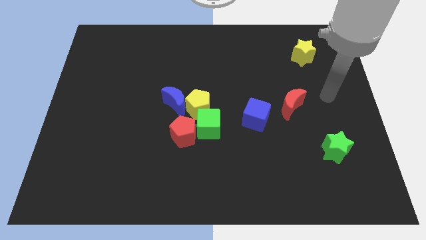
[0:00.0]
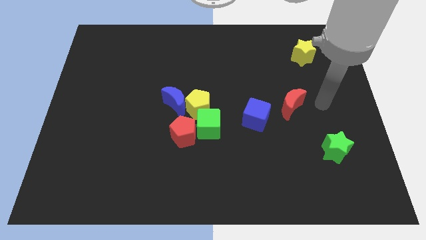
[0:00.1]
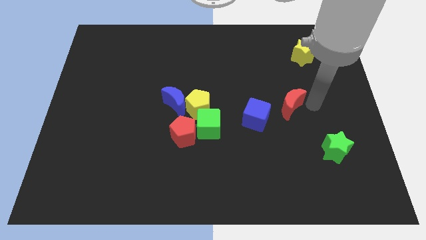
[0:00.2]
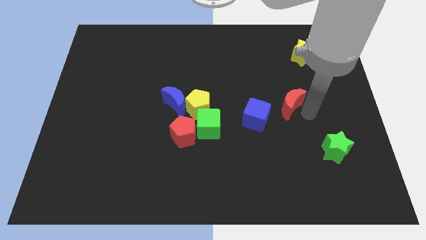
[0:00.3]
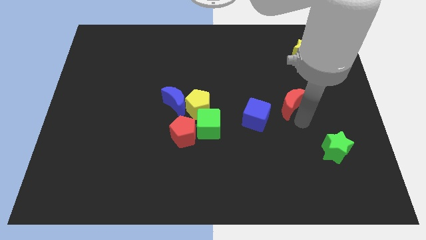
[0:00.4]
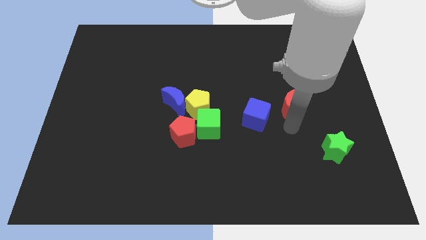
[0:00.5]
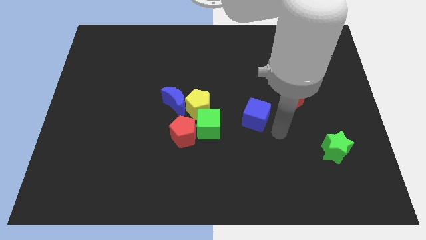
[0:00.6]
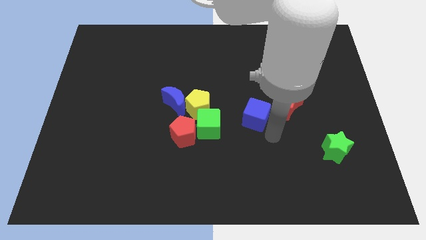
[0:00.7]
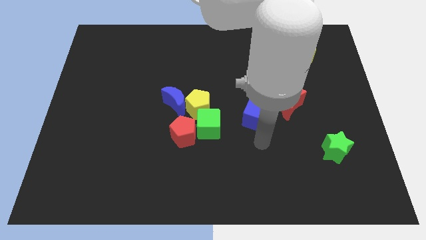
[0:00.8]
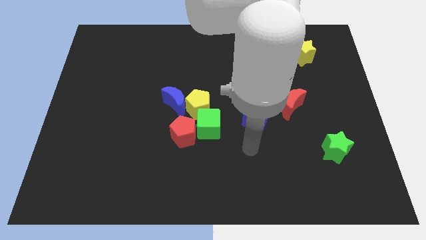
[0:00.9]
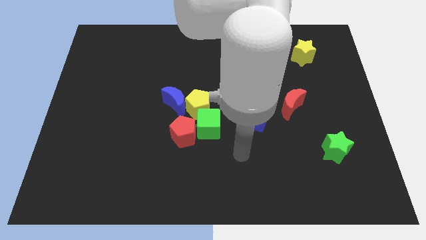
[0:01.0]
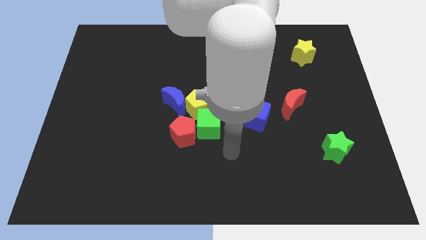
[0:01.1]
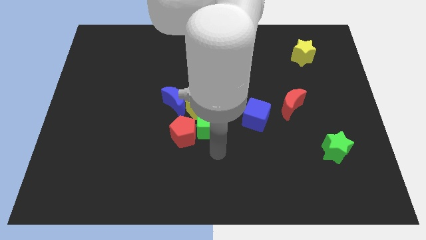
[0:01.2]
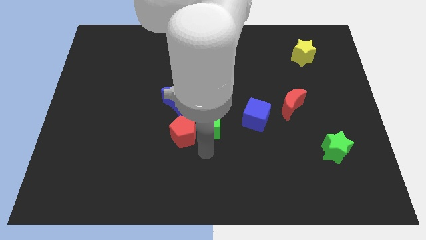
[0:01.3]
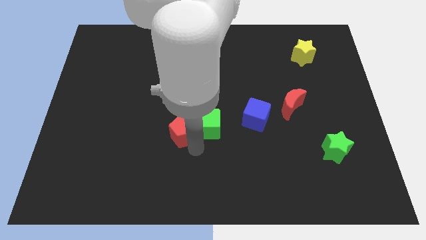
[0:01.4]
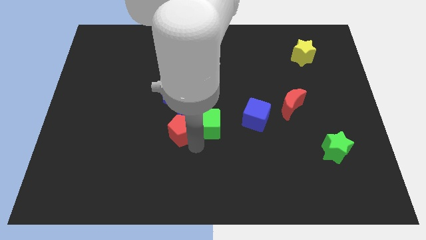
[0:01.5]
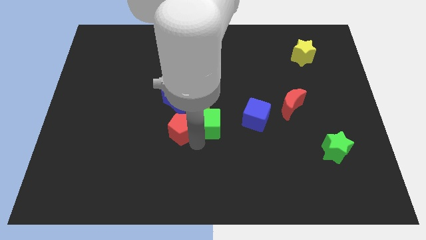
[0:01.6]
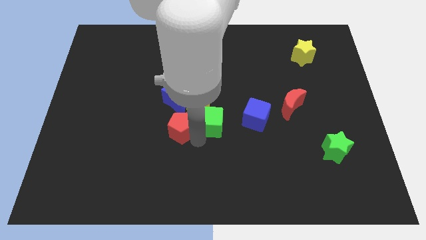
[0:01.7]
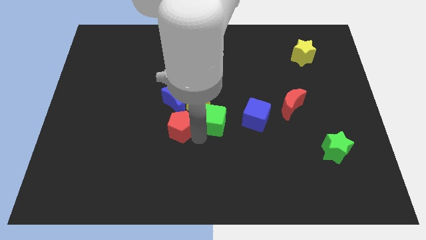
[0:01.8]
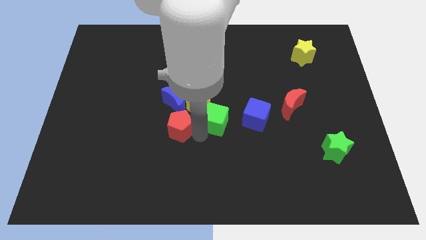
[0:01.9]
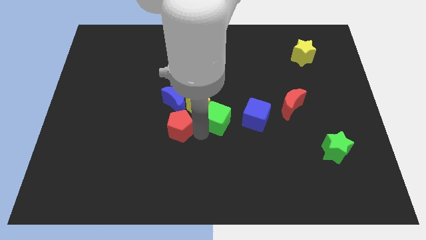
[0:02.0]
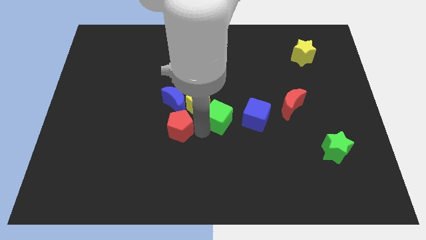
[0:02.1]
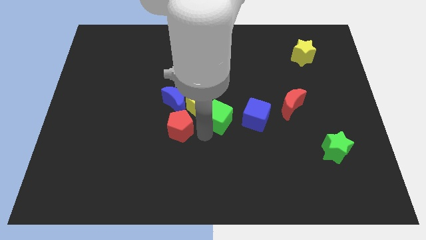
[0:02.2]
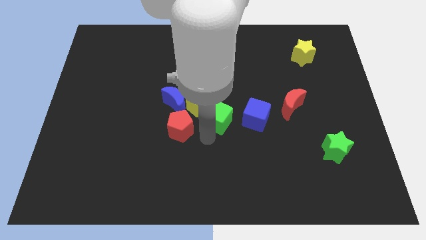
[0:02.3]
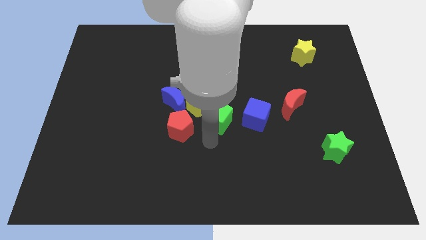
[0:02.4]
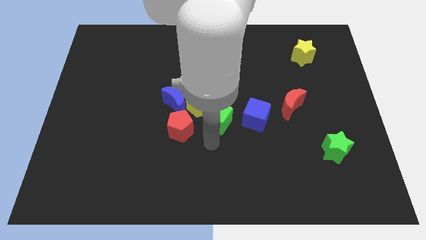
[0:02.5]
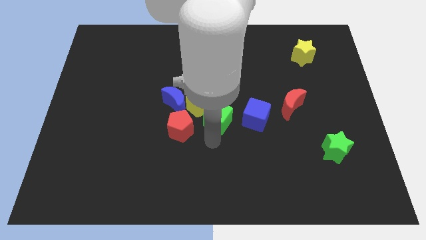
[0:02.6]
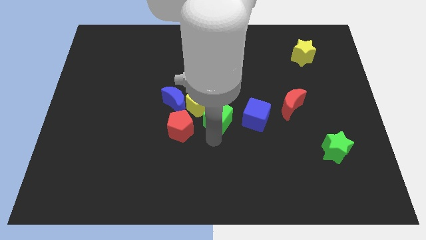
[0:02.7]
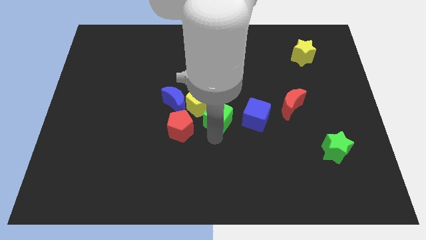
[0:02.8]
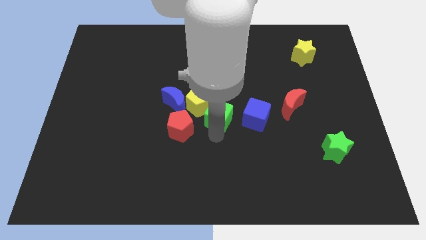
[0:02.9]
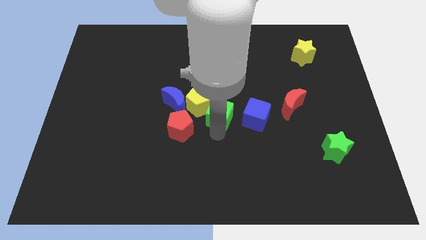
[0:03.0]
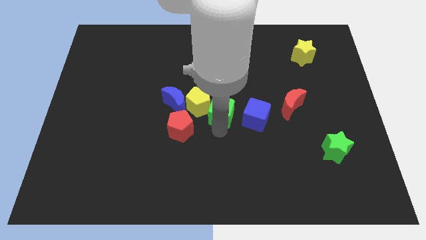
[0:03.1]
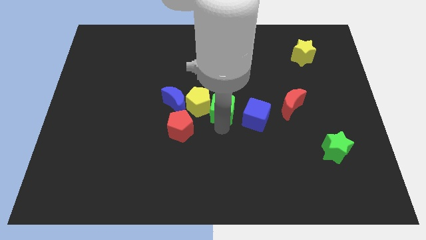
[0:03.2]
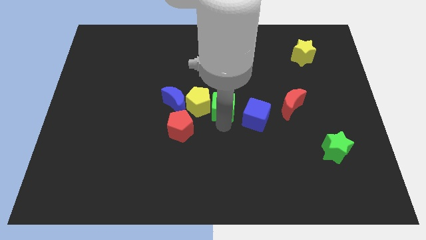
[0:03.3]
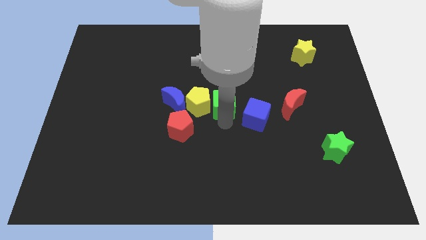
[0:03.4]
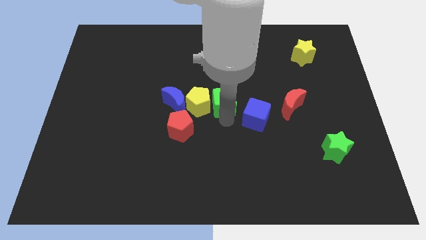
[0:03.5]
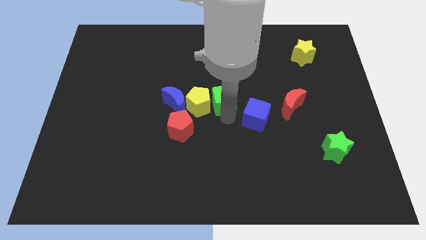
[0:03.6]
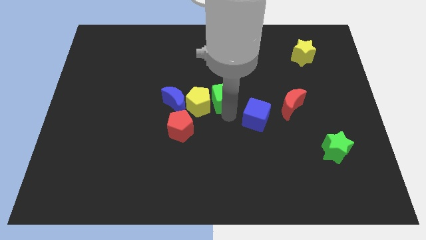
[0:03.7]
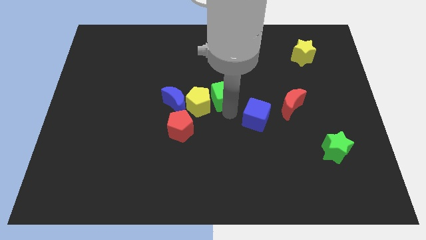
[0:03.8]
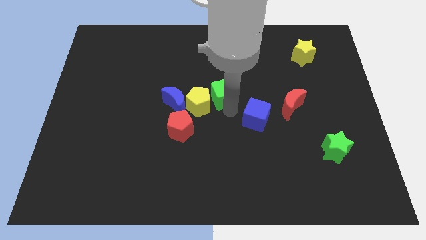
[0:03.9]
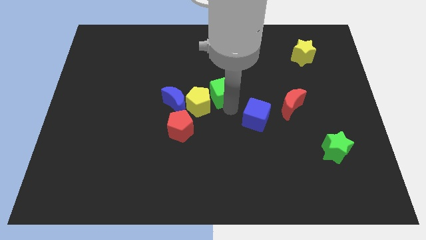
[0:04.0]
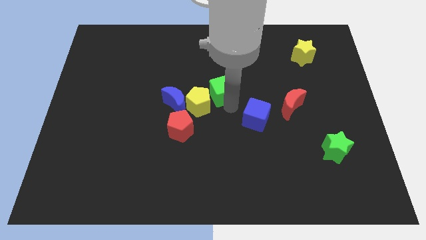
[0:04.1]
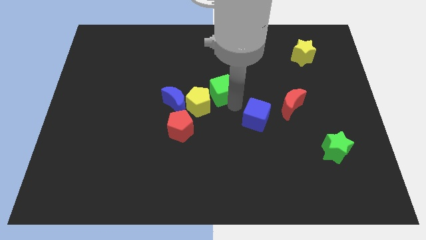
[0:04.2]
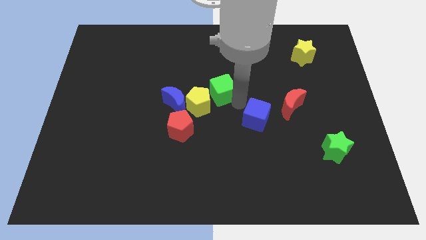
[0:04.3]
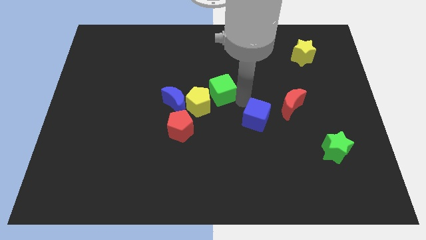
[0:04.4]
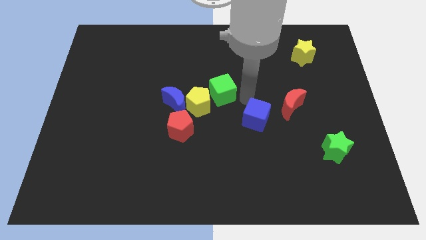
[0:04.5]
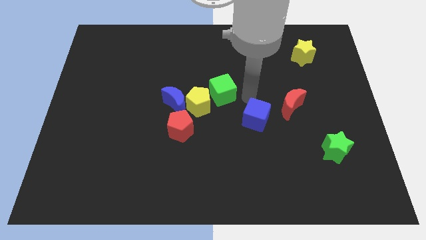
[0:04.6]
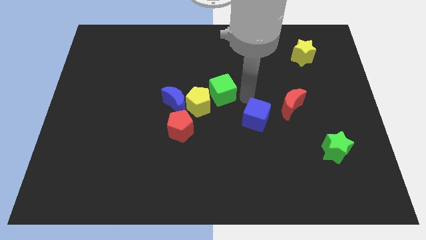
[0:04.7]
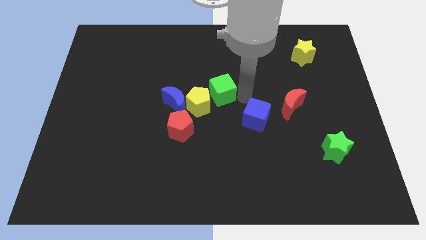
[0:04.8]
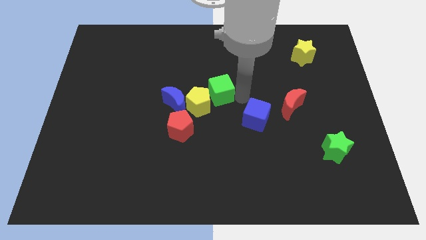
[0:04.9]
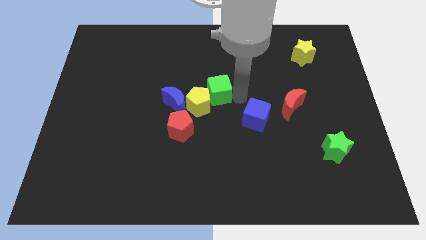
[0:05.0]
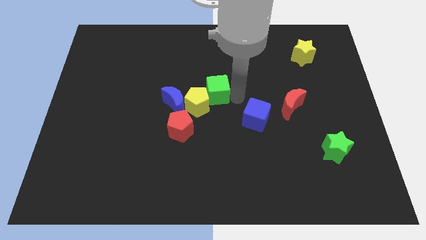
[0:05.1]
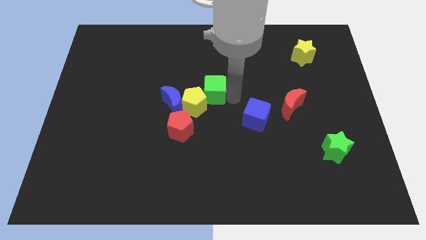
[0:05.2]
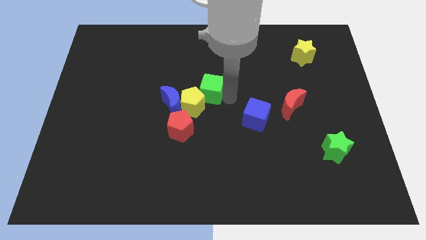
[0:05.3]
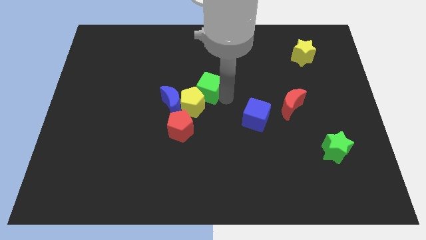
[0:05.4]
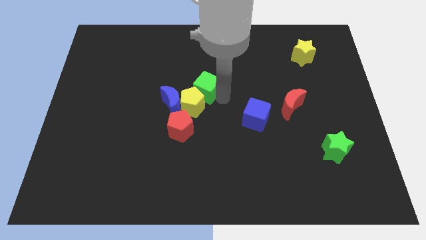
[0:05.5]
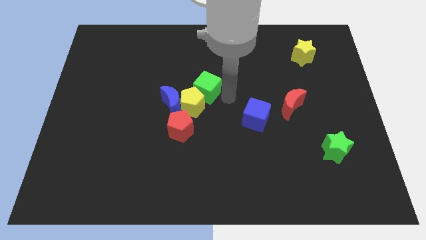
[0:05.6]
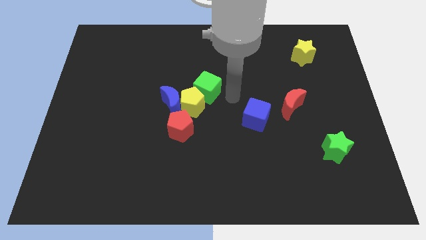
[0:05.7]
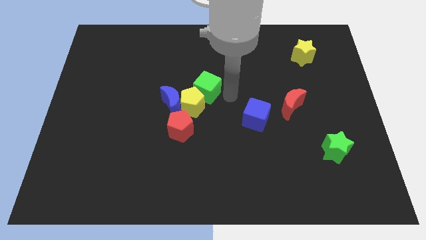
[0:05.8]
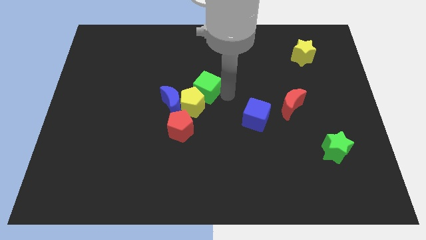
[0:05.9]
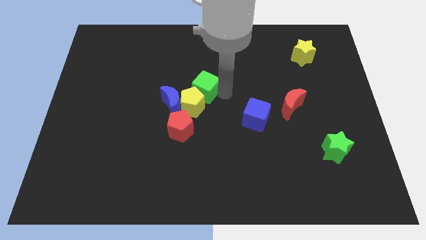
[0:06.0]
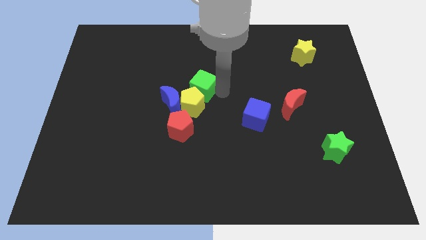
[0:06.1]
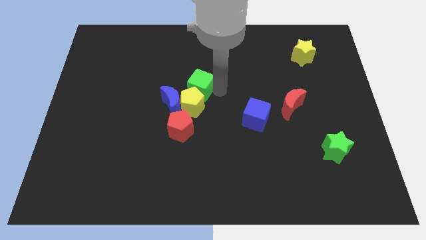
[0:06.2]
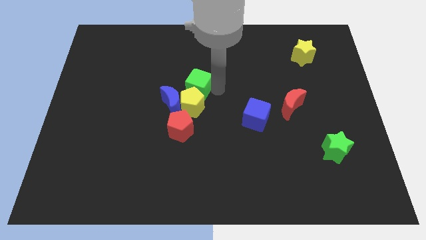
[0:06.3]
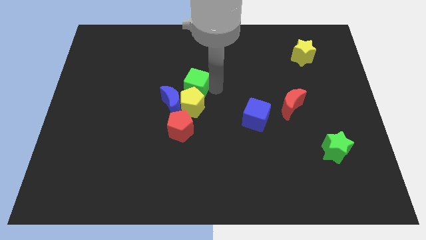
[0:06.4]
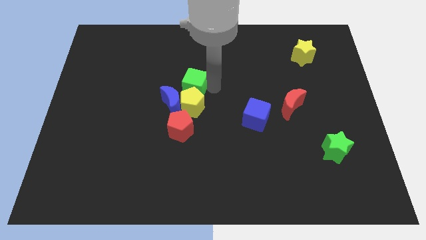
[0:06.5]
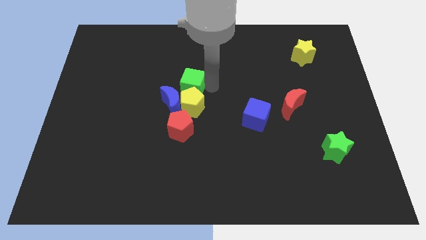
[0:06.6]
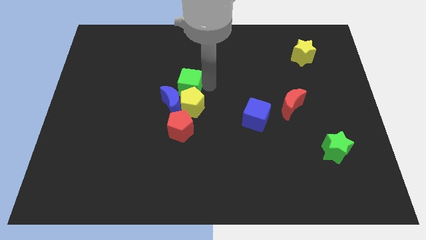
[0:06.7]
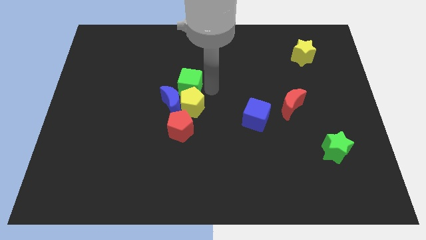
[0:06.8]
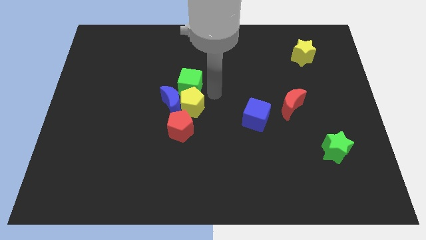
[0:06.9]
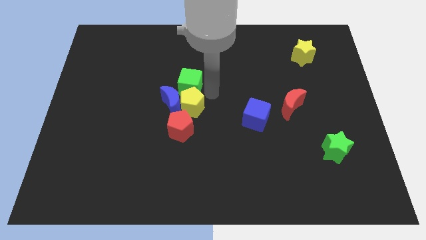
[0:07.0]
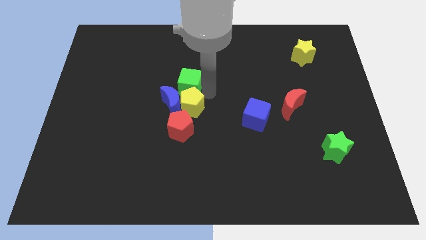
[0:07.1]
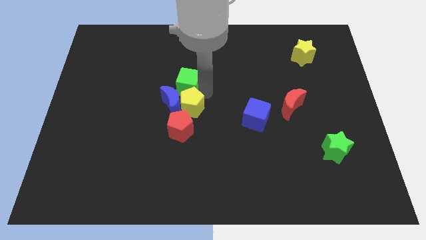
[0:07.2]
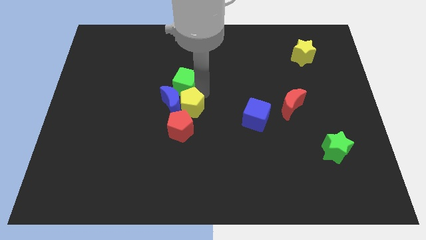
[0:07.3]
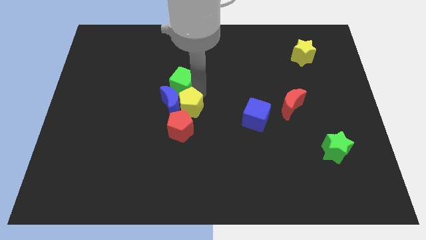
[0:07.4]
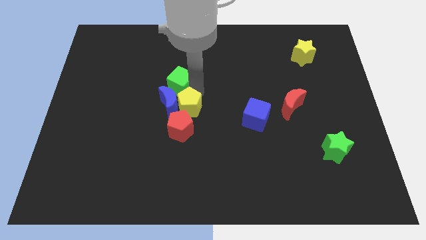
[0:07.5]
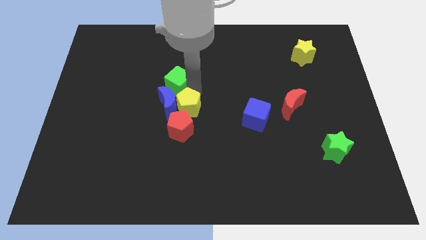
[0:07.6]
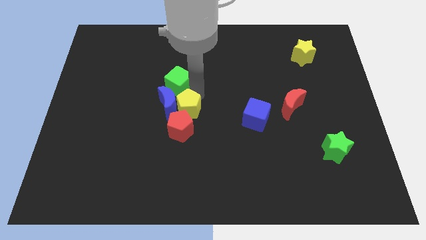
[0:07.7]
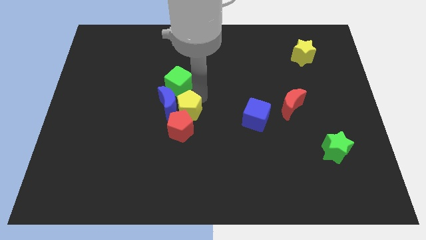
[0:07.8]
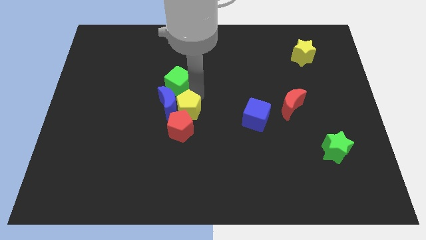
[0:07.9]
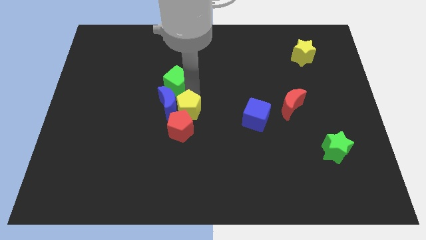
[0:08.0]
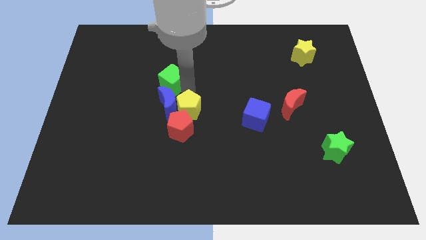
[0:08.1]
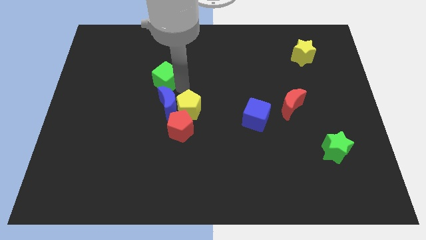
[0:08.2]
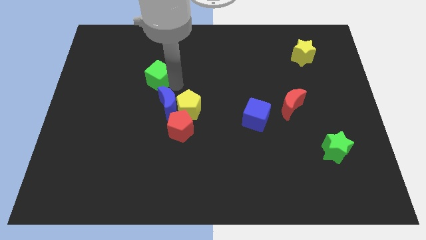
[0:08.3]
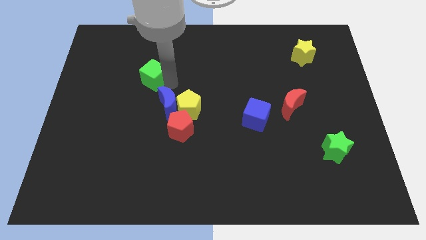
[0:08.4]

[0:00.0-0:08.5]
slide the green cube up and to the left
